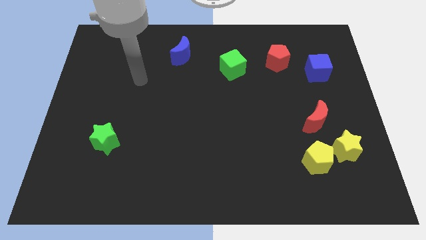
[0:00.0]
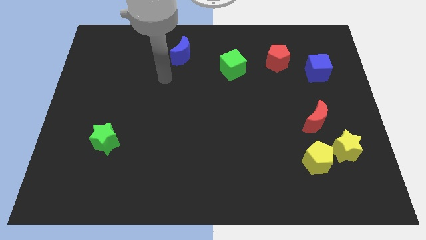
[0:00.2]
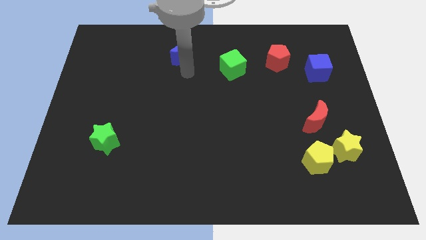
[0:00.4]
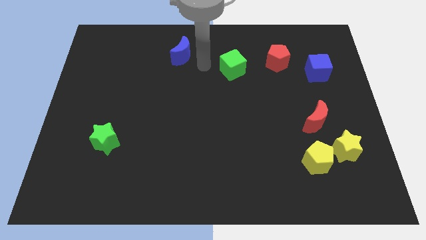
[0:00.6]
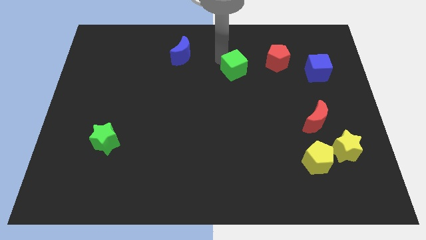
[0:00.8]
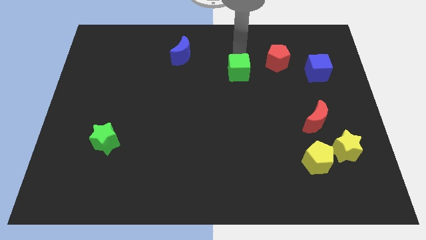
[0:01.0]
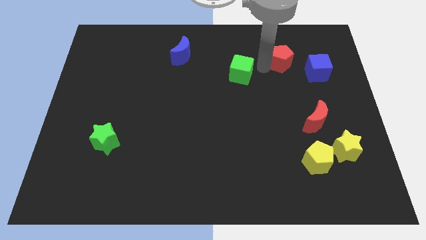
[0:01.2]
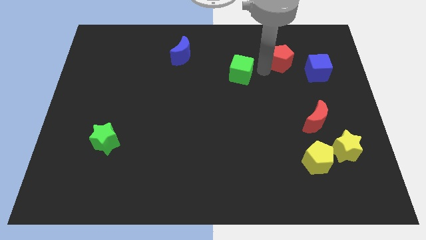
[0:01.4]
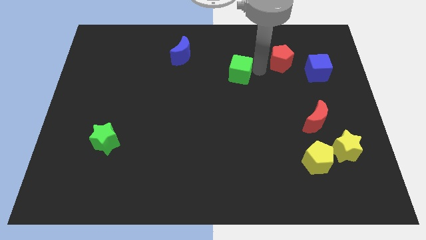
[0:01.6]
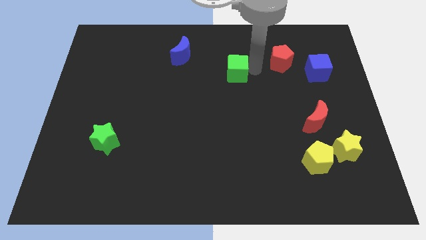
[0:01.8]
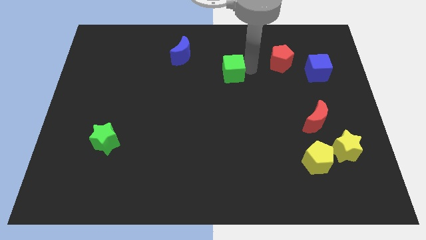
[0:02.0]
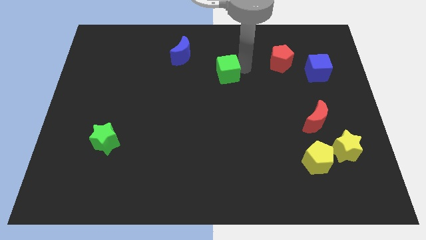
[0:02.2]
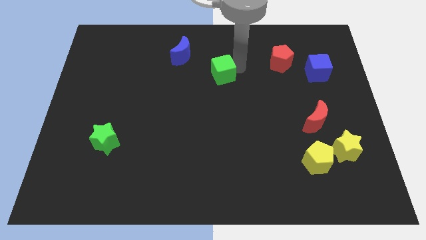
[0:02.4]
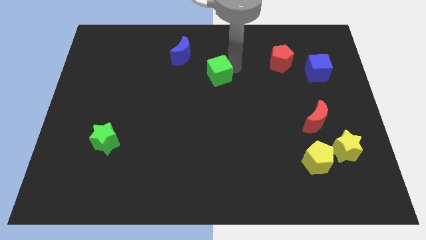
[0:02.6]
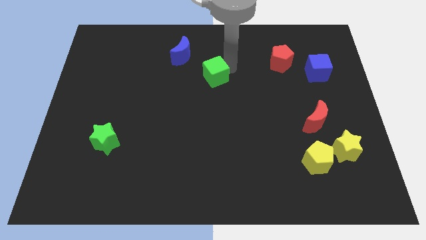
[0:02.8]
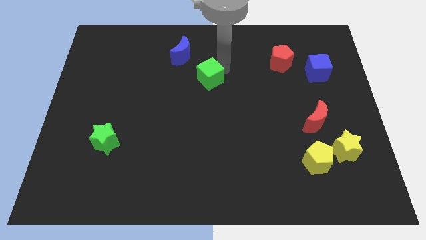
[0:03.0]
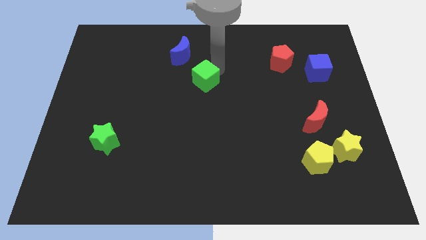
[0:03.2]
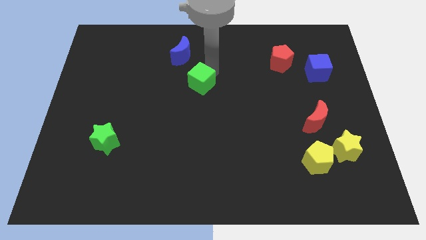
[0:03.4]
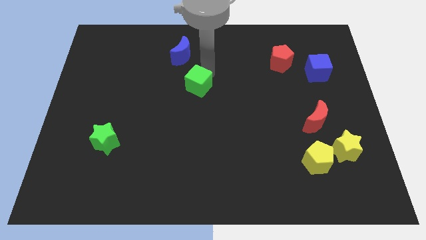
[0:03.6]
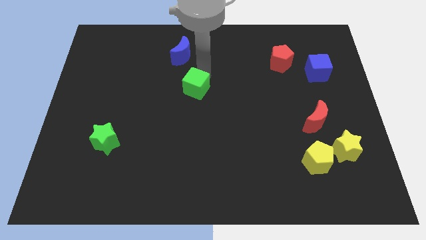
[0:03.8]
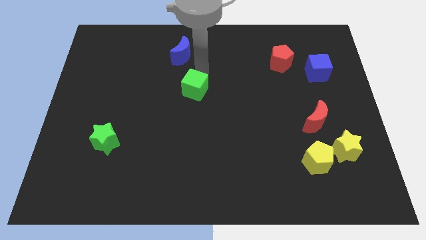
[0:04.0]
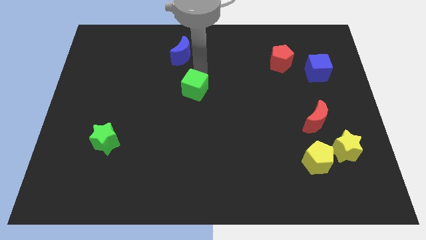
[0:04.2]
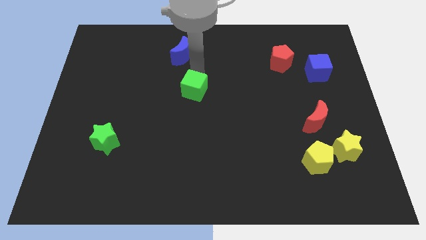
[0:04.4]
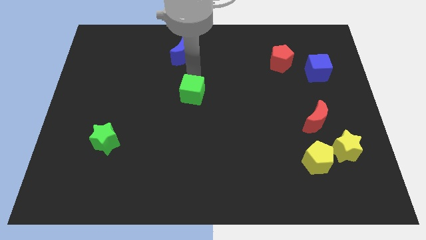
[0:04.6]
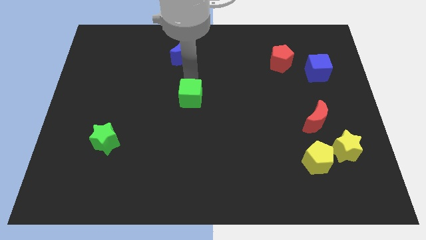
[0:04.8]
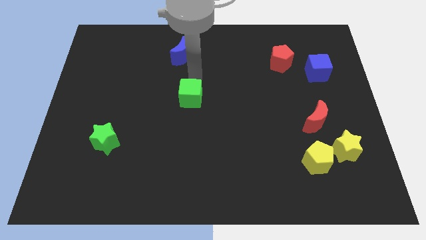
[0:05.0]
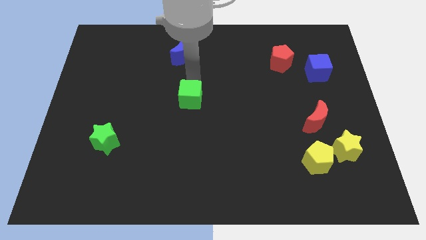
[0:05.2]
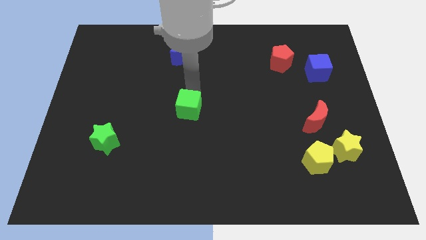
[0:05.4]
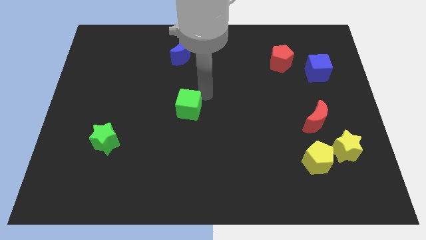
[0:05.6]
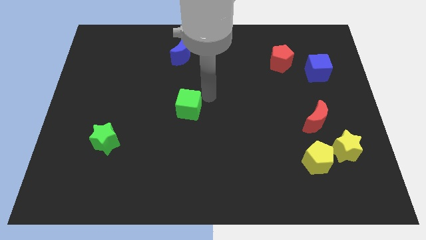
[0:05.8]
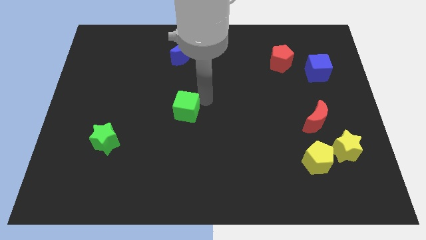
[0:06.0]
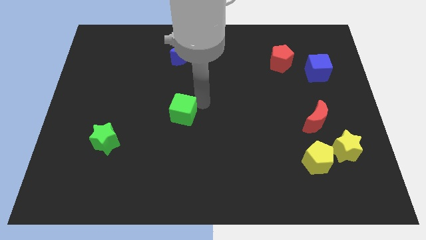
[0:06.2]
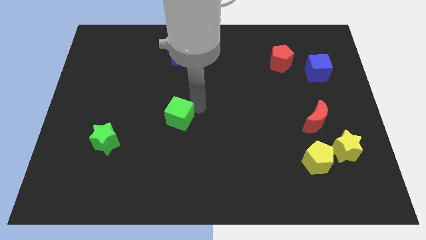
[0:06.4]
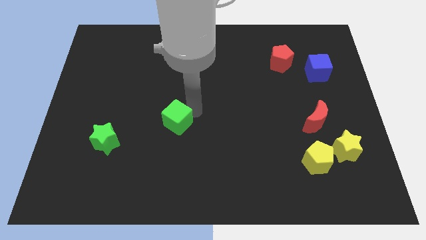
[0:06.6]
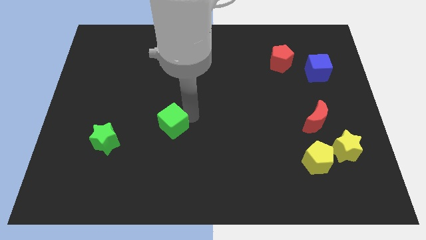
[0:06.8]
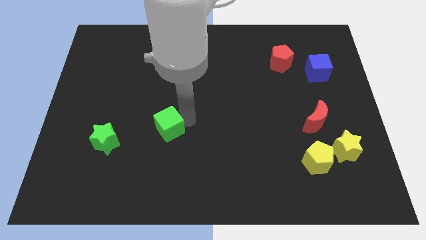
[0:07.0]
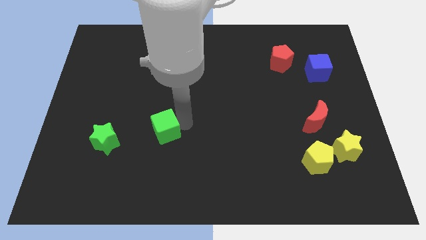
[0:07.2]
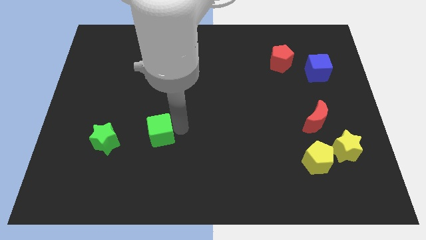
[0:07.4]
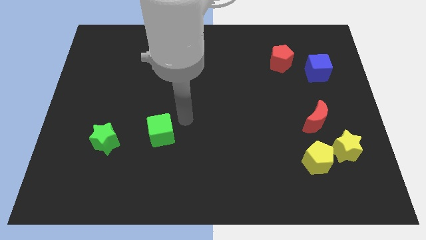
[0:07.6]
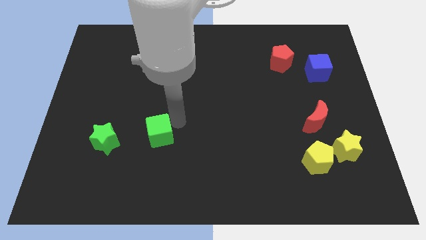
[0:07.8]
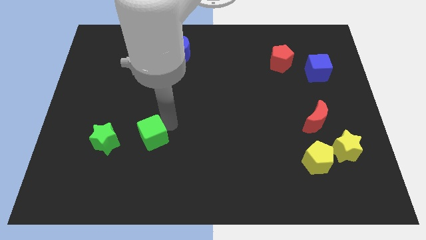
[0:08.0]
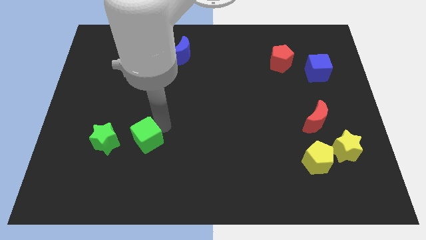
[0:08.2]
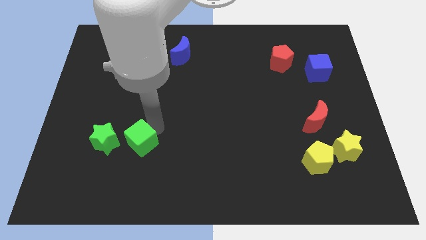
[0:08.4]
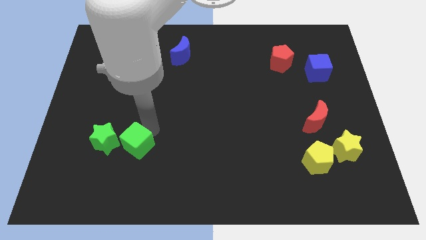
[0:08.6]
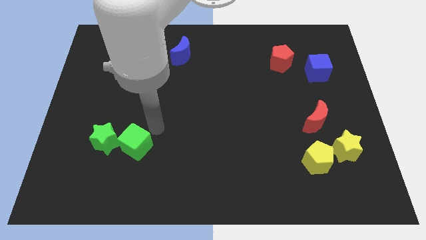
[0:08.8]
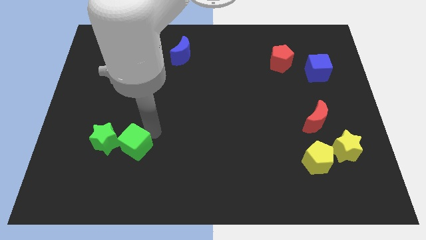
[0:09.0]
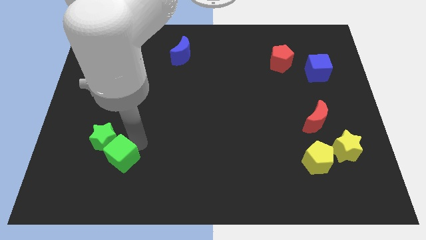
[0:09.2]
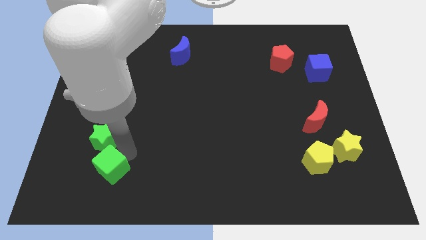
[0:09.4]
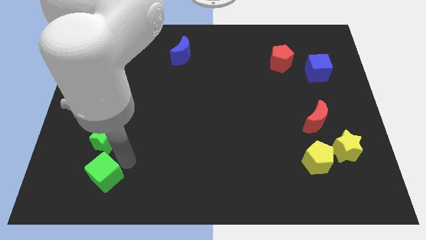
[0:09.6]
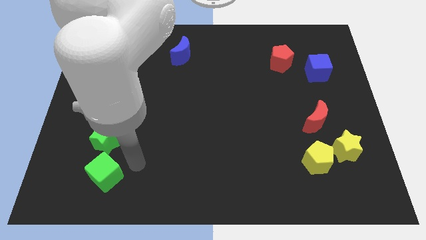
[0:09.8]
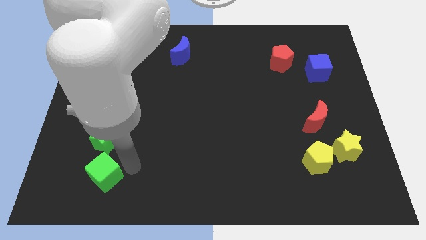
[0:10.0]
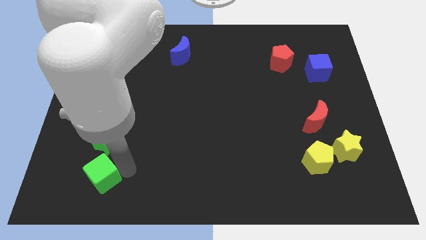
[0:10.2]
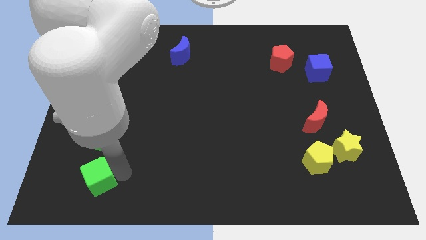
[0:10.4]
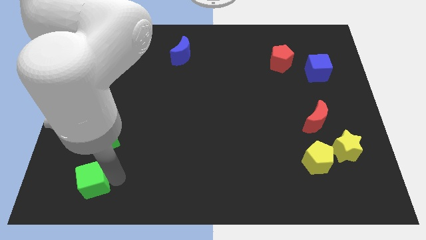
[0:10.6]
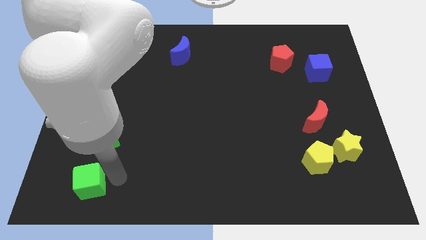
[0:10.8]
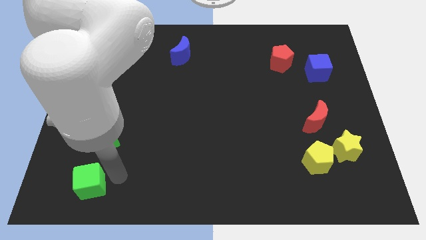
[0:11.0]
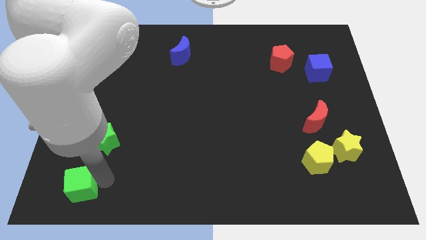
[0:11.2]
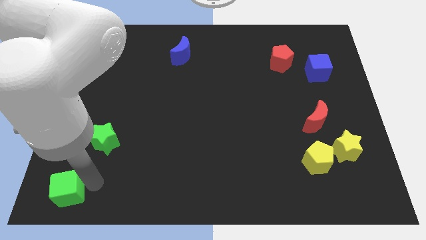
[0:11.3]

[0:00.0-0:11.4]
put the green cube to the bottom left corner
